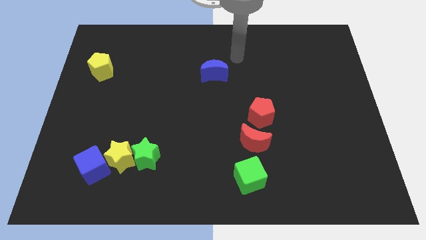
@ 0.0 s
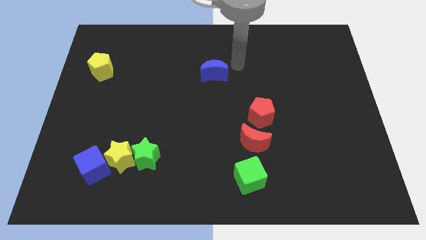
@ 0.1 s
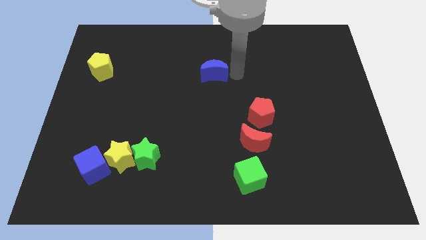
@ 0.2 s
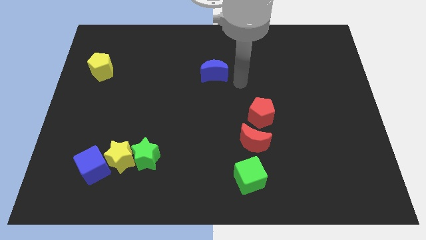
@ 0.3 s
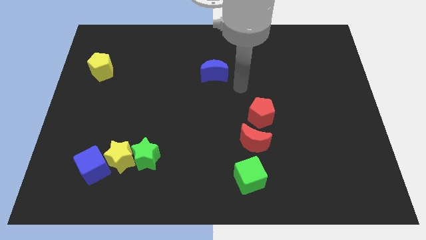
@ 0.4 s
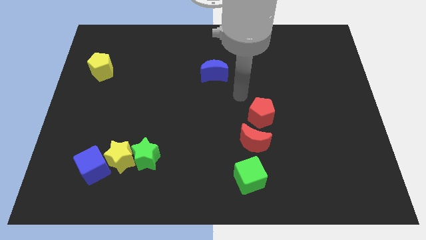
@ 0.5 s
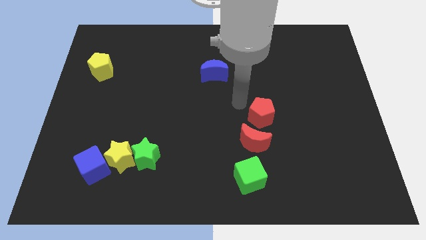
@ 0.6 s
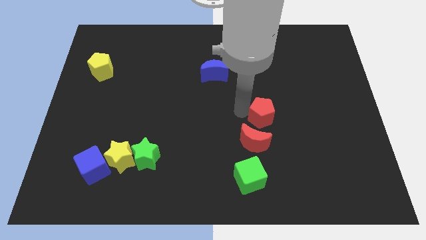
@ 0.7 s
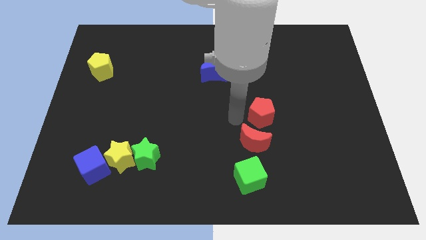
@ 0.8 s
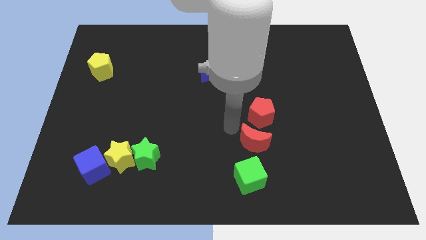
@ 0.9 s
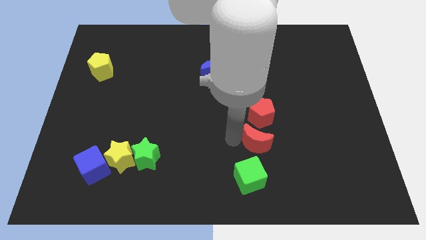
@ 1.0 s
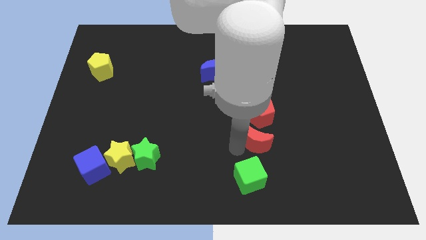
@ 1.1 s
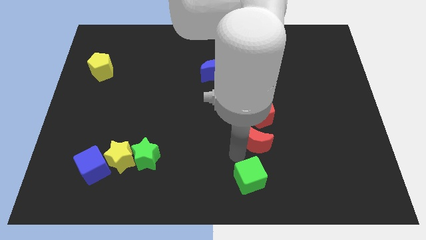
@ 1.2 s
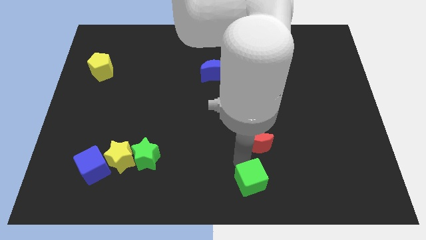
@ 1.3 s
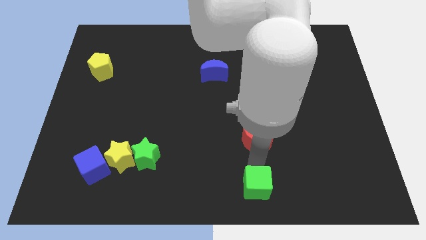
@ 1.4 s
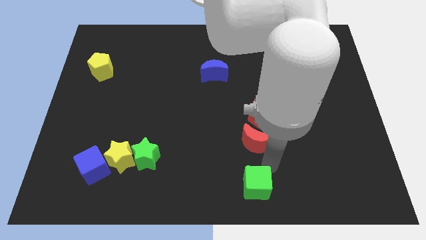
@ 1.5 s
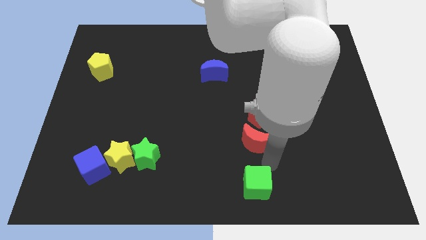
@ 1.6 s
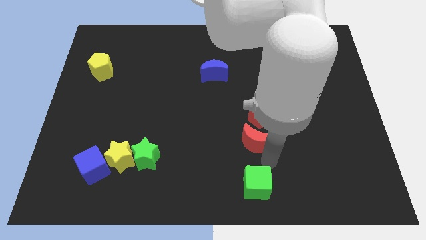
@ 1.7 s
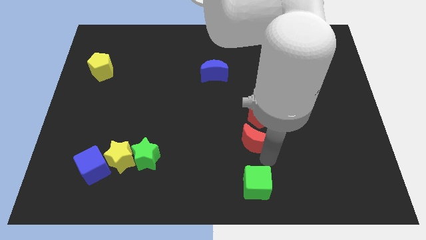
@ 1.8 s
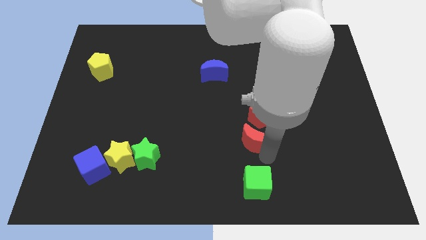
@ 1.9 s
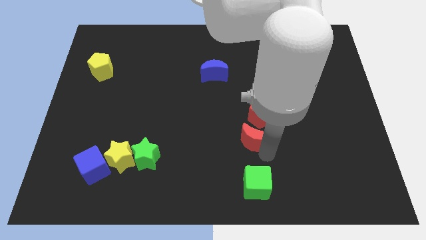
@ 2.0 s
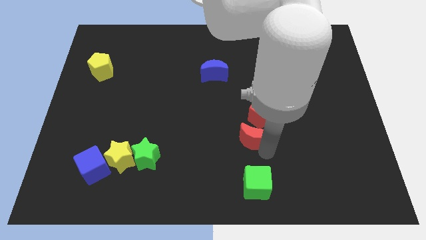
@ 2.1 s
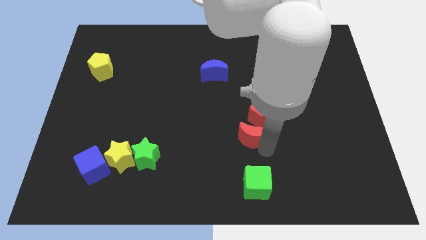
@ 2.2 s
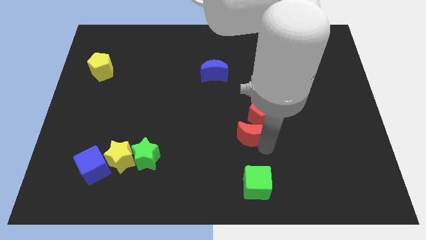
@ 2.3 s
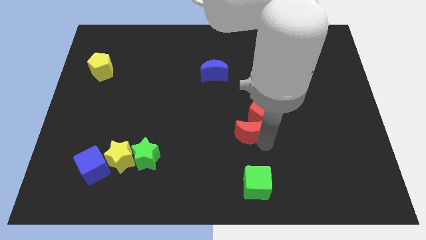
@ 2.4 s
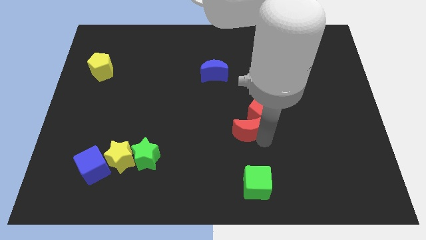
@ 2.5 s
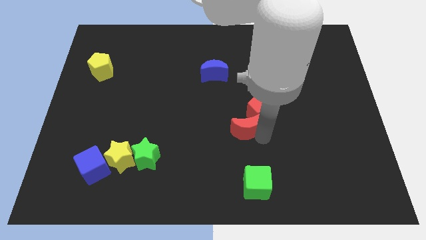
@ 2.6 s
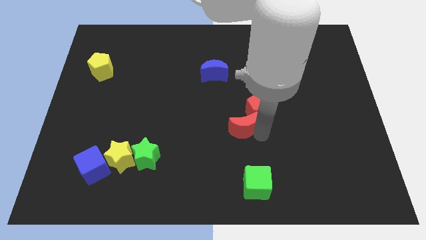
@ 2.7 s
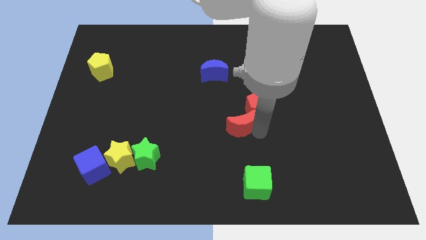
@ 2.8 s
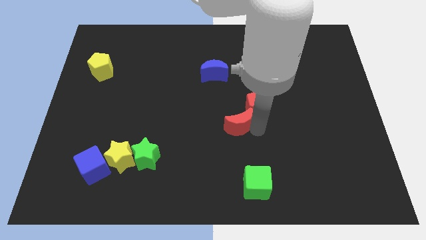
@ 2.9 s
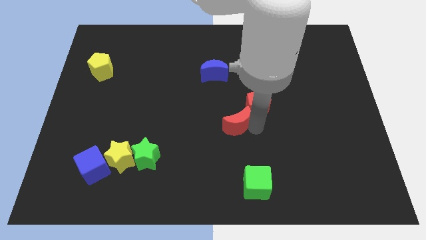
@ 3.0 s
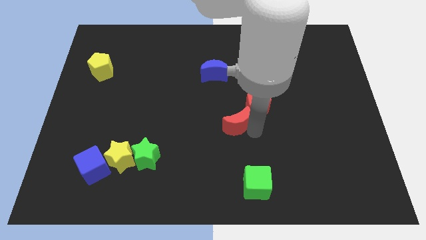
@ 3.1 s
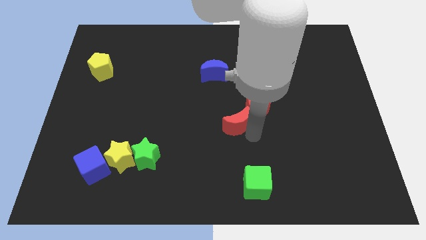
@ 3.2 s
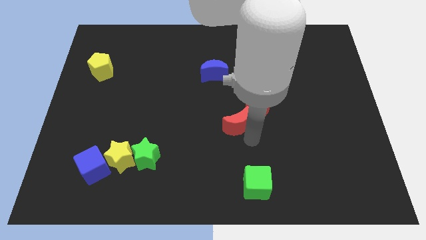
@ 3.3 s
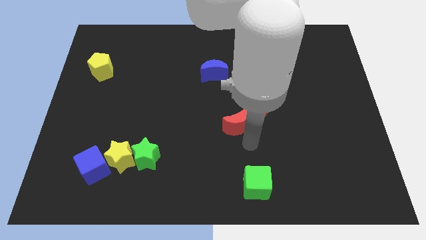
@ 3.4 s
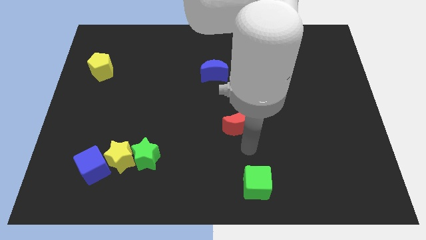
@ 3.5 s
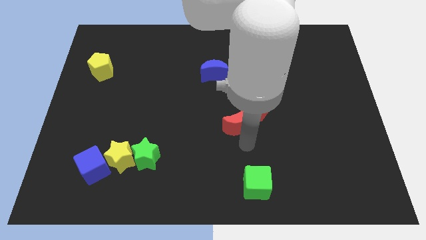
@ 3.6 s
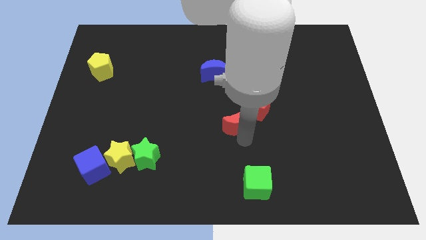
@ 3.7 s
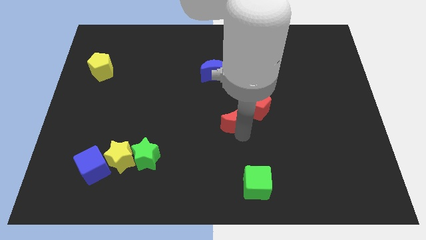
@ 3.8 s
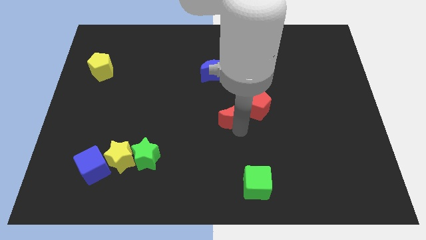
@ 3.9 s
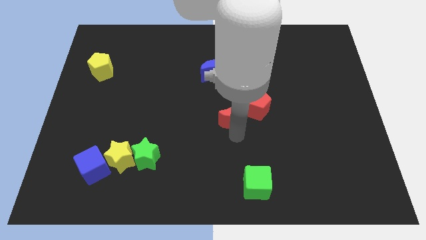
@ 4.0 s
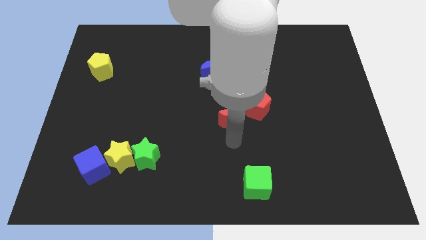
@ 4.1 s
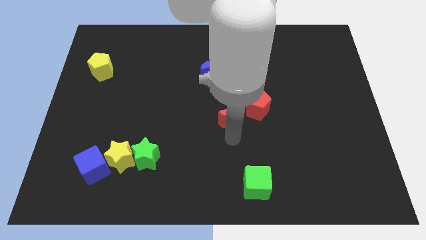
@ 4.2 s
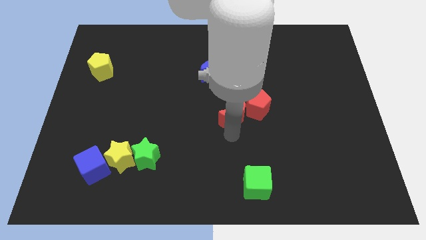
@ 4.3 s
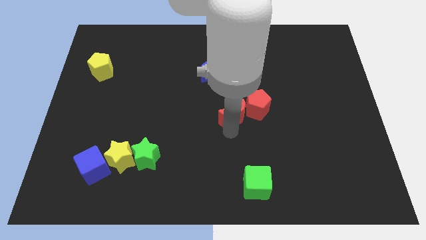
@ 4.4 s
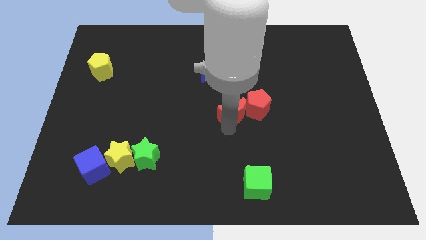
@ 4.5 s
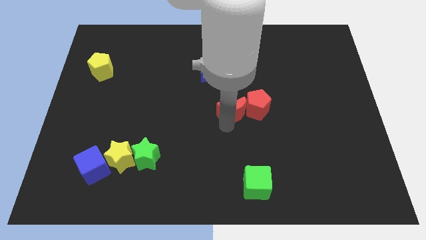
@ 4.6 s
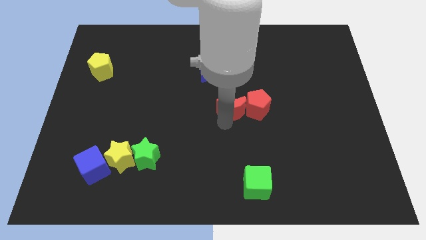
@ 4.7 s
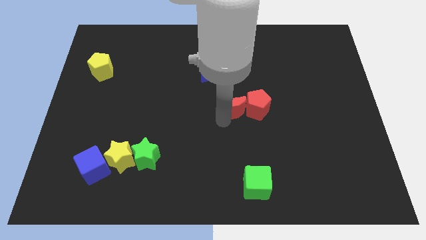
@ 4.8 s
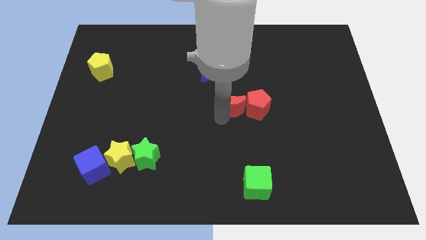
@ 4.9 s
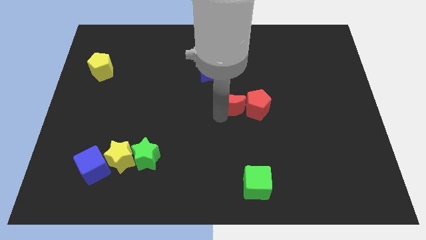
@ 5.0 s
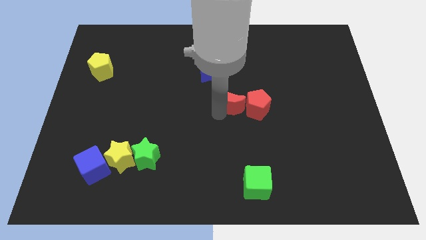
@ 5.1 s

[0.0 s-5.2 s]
slide the red moon to the bottom right side of the blue moon

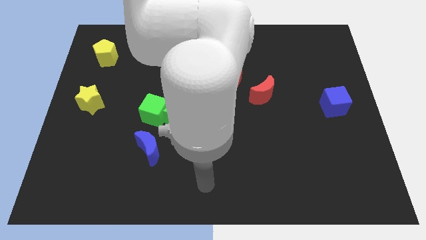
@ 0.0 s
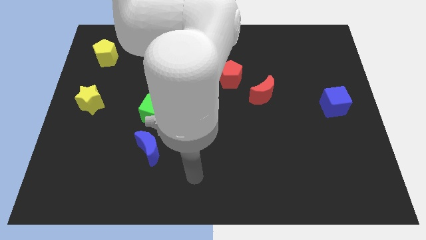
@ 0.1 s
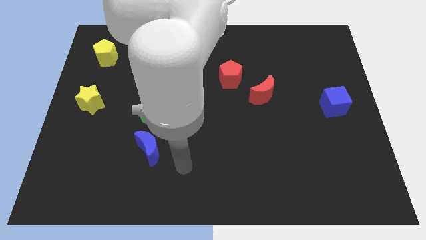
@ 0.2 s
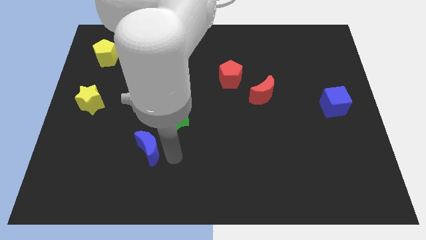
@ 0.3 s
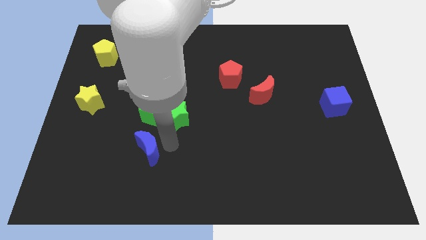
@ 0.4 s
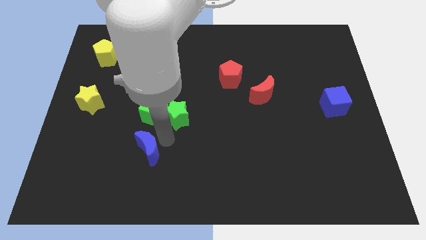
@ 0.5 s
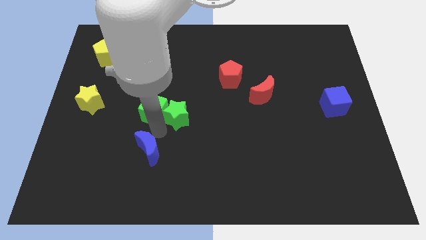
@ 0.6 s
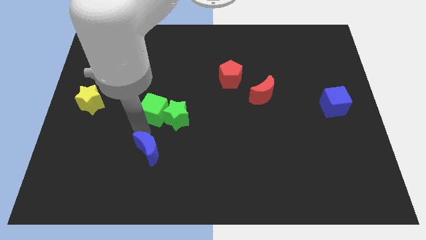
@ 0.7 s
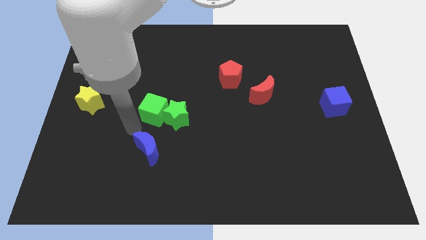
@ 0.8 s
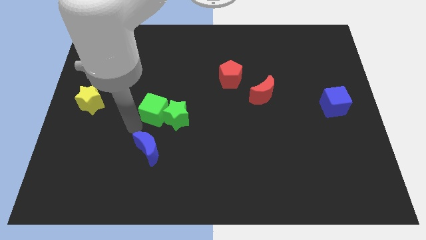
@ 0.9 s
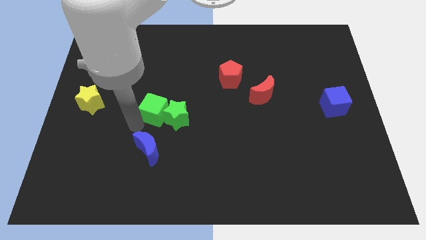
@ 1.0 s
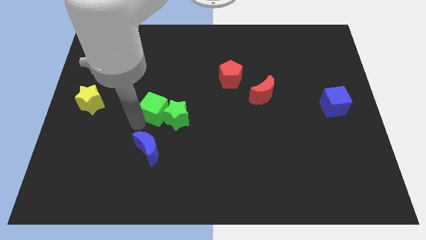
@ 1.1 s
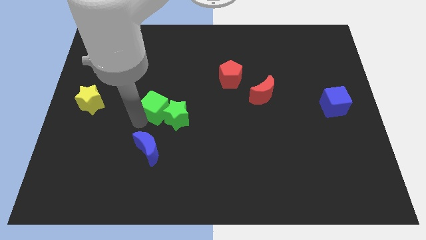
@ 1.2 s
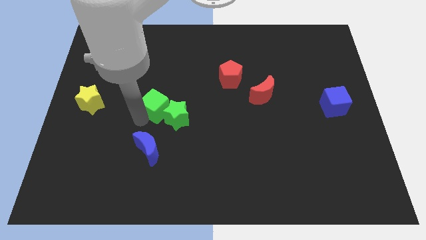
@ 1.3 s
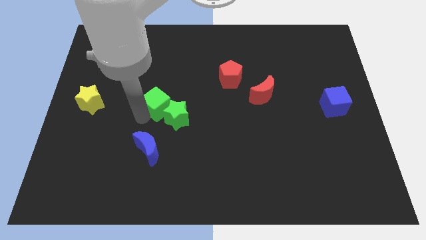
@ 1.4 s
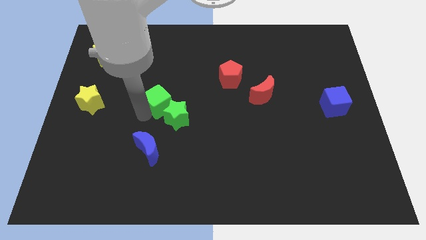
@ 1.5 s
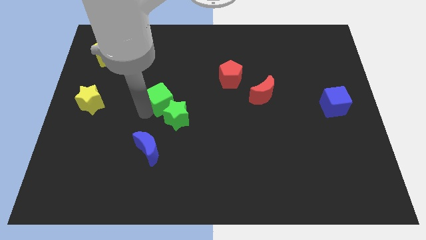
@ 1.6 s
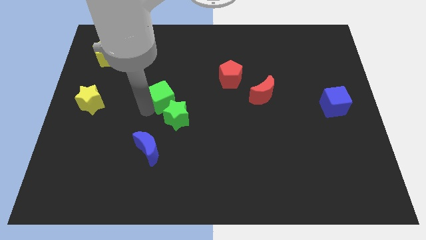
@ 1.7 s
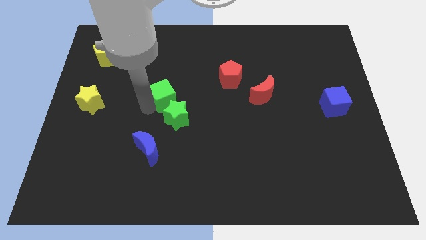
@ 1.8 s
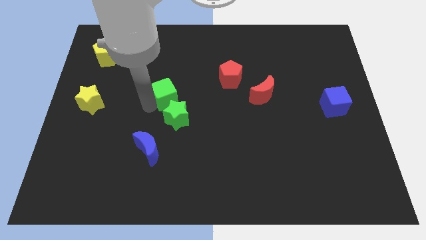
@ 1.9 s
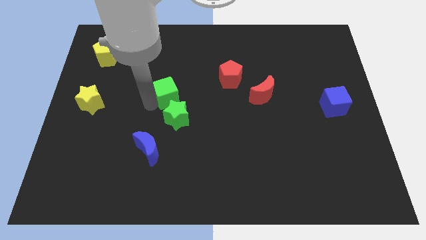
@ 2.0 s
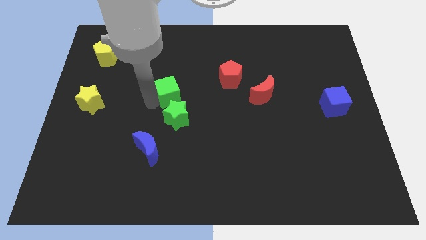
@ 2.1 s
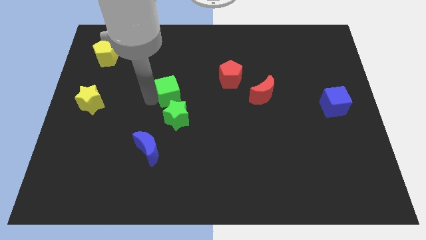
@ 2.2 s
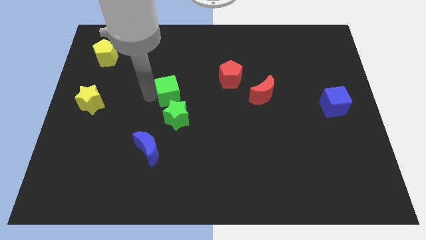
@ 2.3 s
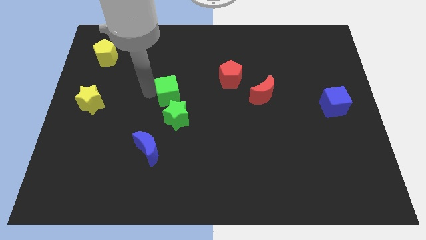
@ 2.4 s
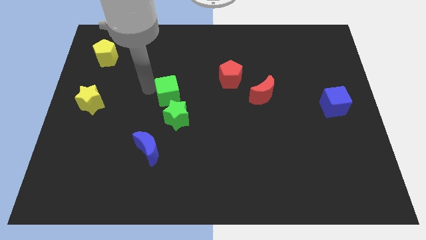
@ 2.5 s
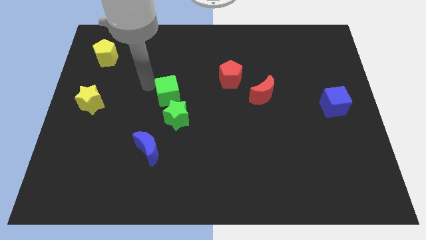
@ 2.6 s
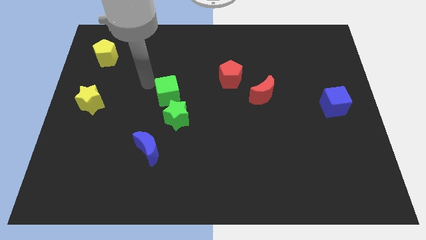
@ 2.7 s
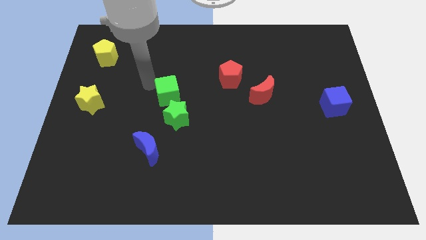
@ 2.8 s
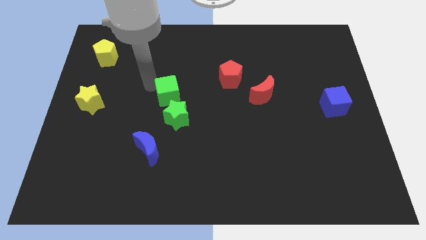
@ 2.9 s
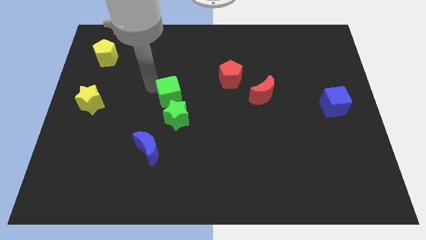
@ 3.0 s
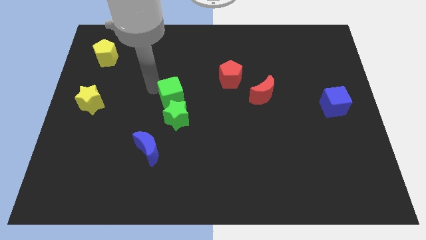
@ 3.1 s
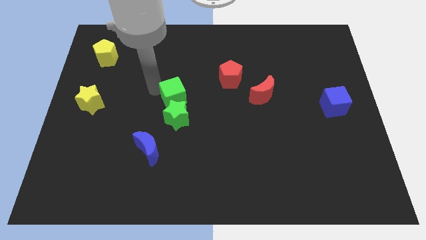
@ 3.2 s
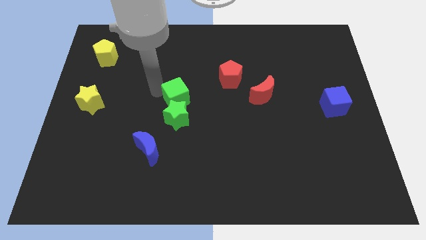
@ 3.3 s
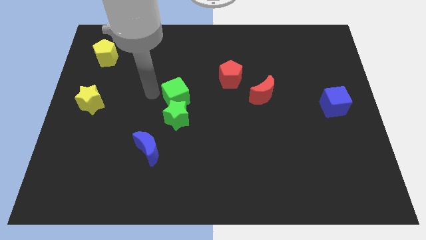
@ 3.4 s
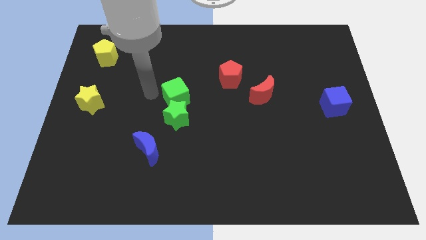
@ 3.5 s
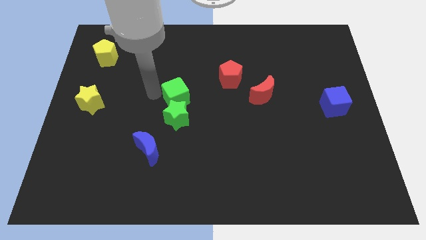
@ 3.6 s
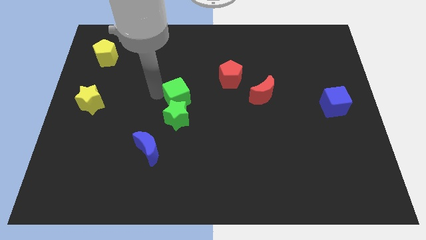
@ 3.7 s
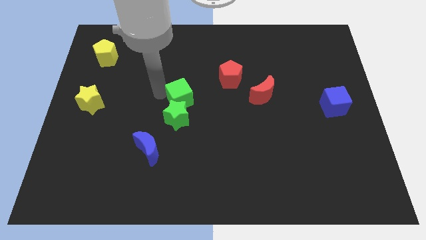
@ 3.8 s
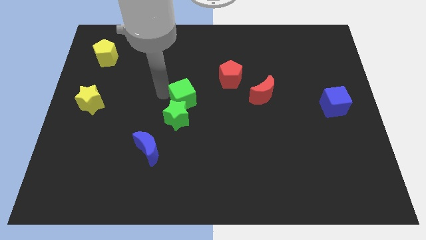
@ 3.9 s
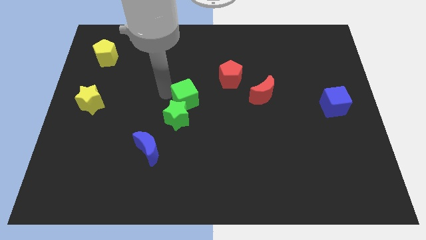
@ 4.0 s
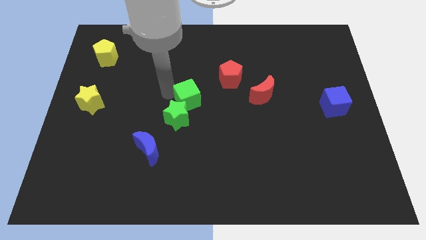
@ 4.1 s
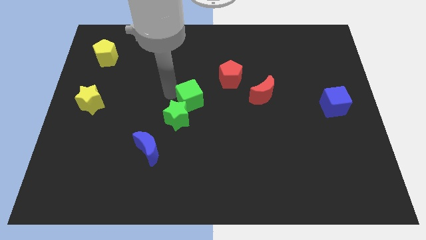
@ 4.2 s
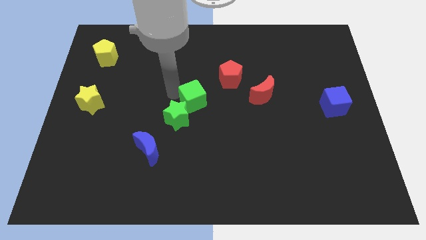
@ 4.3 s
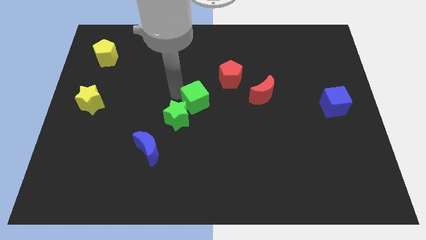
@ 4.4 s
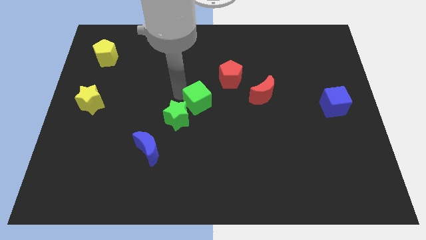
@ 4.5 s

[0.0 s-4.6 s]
put the green cube to the left of the red moon
